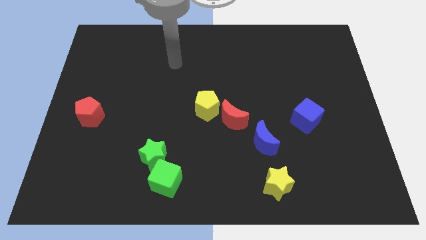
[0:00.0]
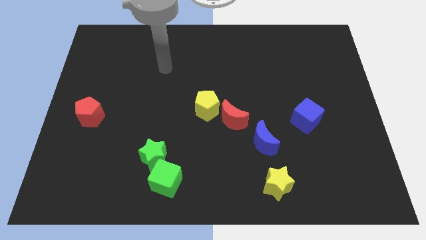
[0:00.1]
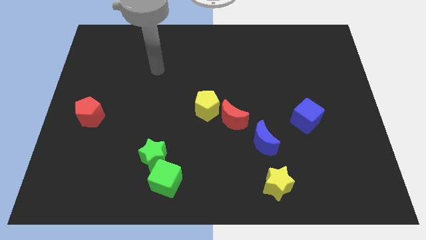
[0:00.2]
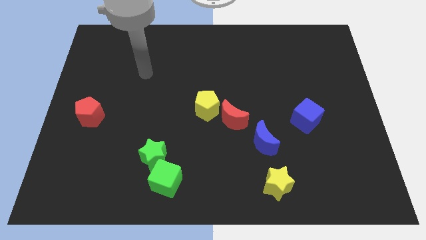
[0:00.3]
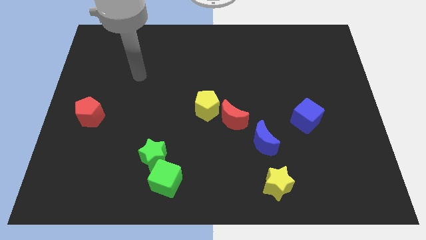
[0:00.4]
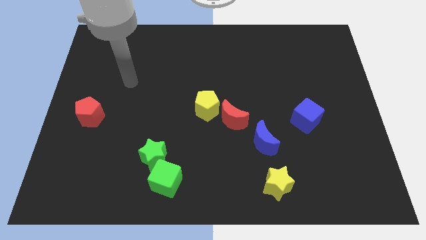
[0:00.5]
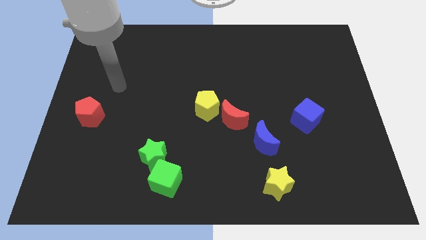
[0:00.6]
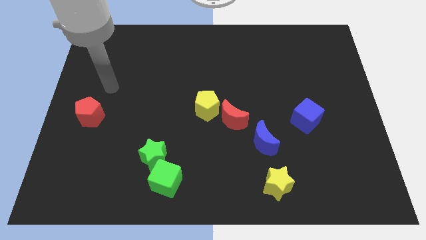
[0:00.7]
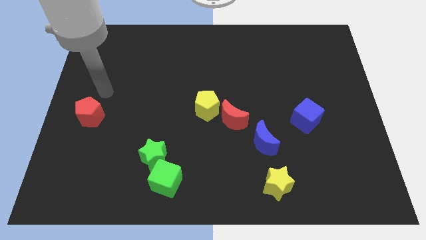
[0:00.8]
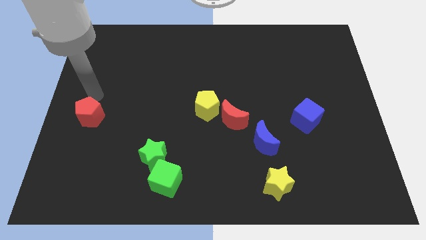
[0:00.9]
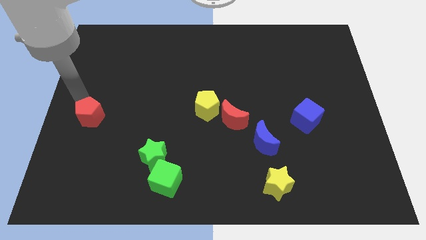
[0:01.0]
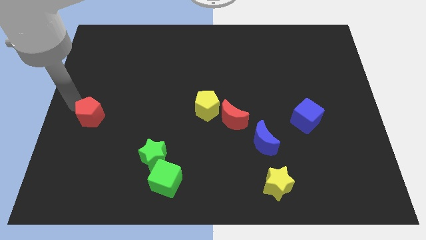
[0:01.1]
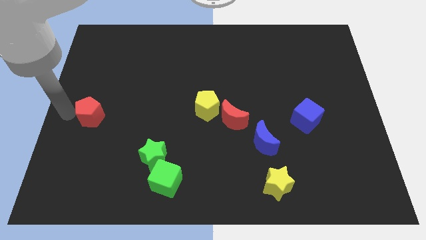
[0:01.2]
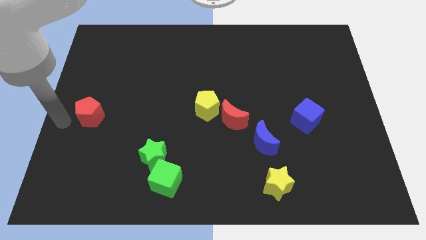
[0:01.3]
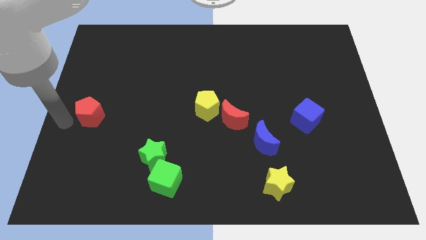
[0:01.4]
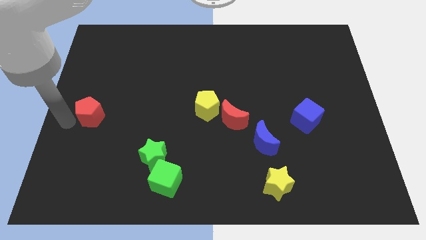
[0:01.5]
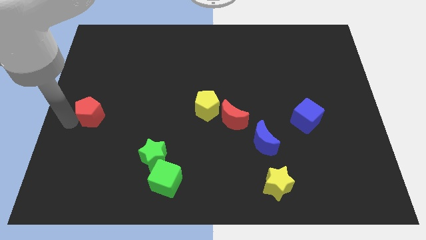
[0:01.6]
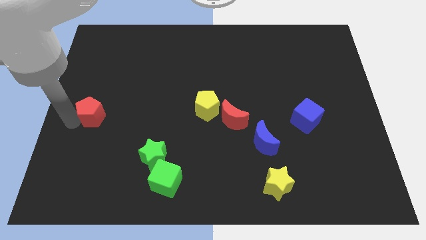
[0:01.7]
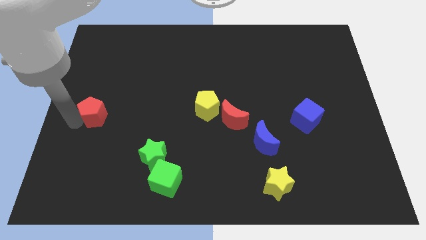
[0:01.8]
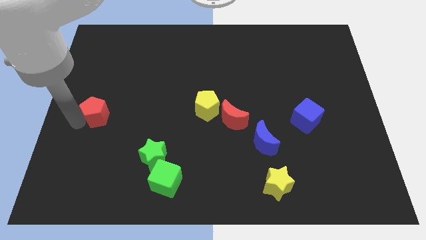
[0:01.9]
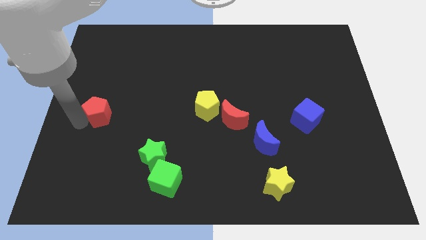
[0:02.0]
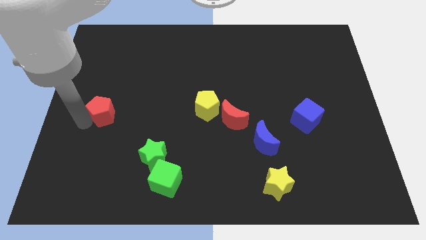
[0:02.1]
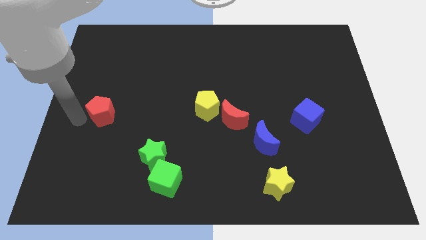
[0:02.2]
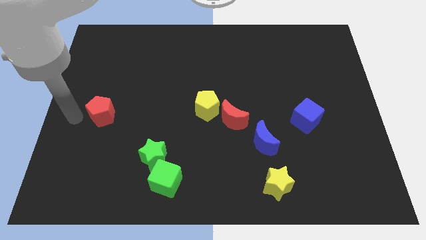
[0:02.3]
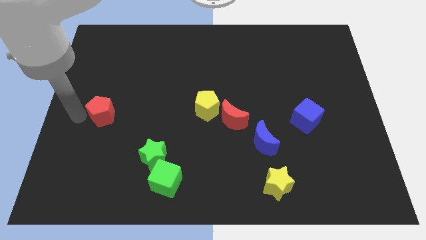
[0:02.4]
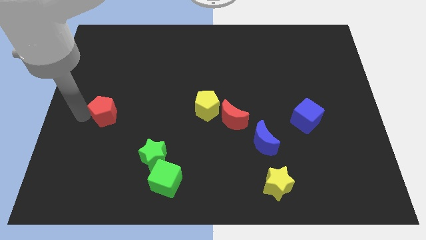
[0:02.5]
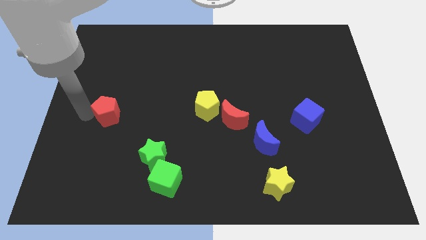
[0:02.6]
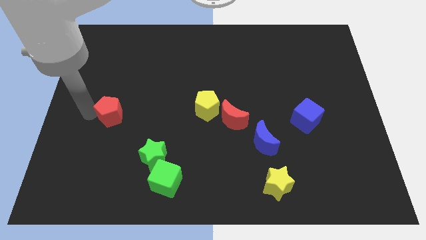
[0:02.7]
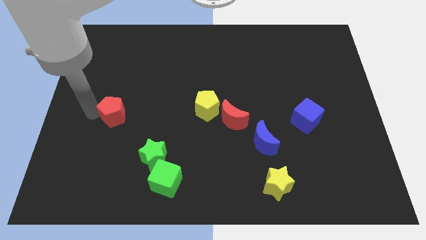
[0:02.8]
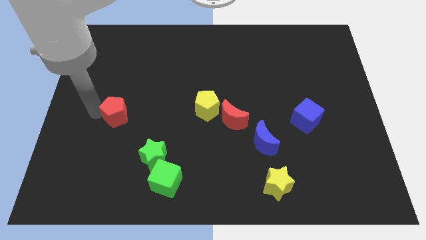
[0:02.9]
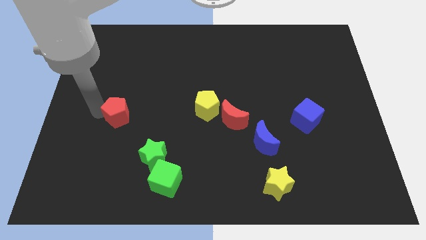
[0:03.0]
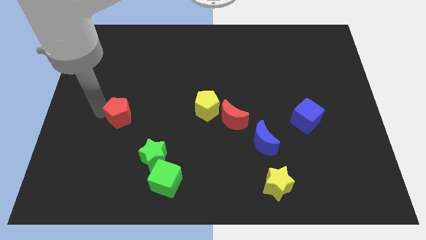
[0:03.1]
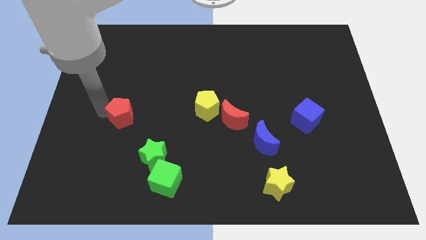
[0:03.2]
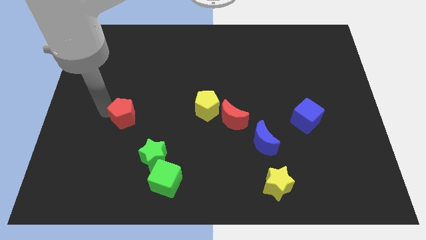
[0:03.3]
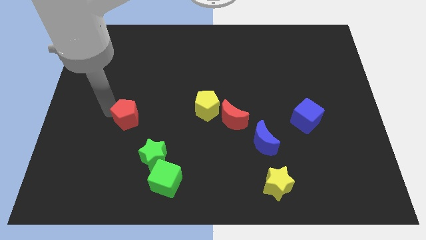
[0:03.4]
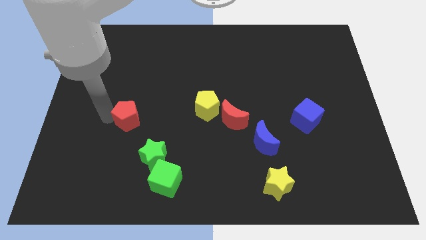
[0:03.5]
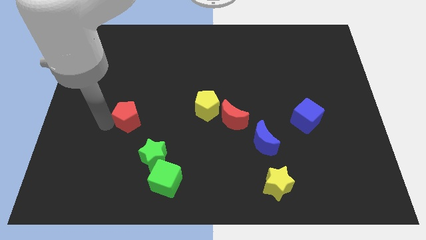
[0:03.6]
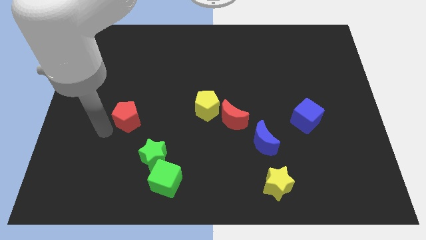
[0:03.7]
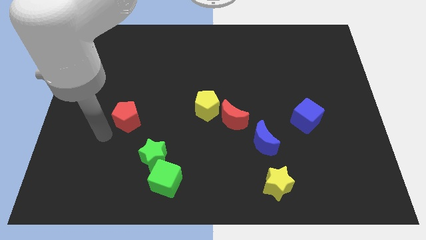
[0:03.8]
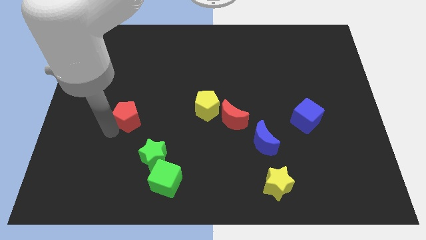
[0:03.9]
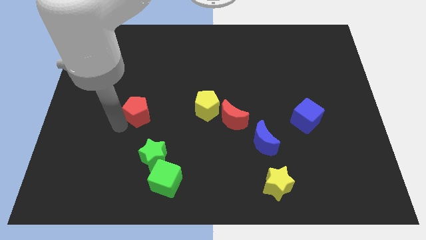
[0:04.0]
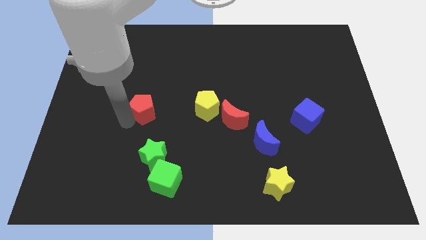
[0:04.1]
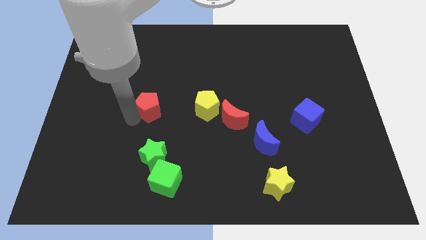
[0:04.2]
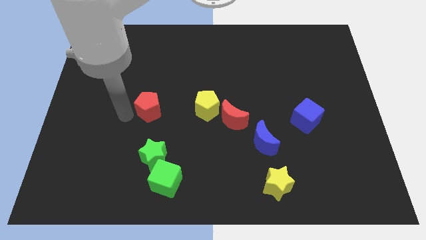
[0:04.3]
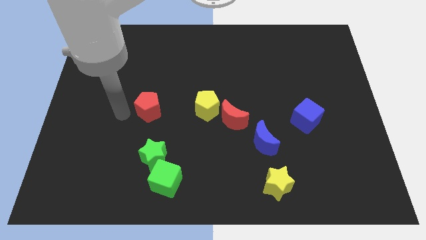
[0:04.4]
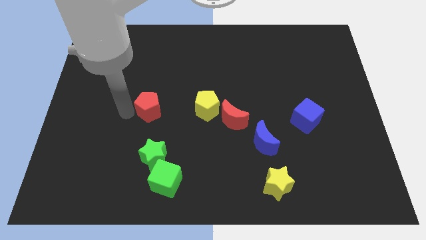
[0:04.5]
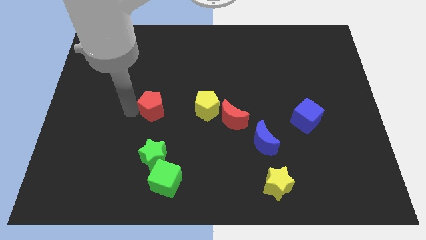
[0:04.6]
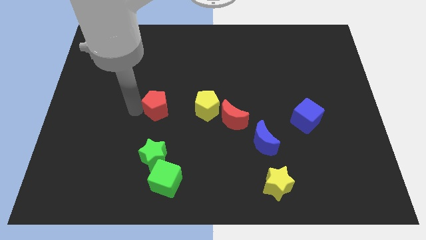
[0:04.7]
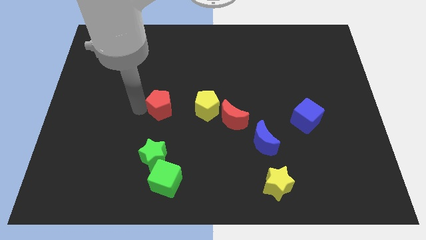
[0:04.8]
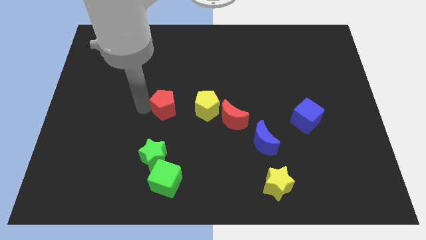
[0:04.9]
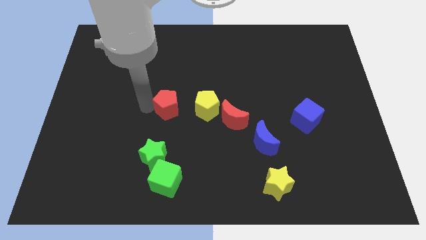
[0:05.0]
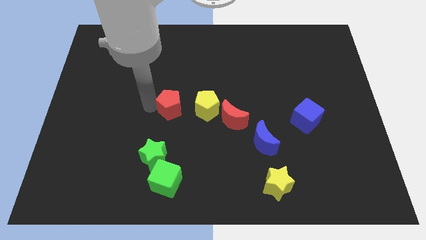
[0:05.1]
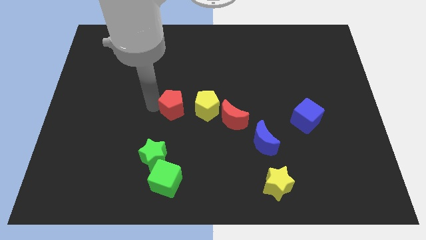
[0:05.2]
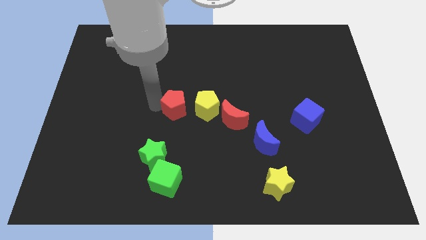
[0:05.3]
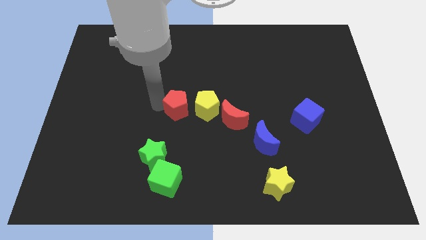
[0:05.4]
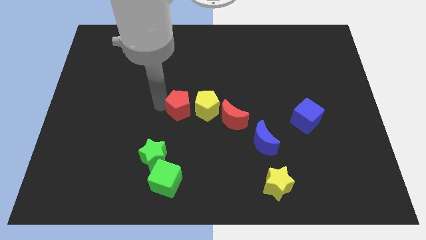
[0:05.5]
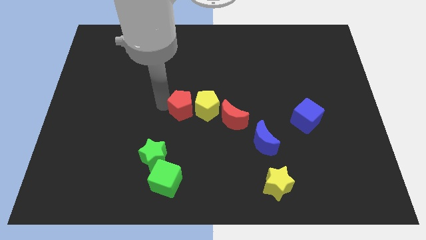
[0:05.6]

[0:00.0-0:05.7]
push the red pentagon next to the yellow pentagon

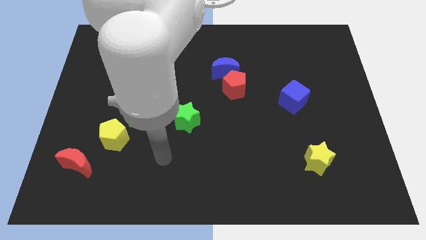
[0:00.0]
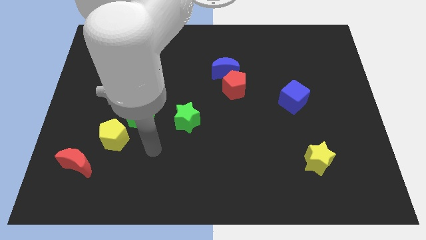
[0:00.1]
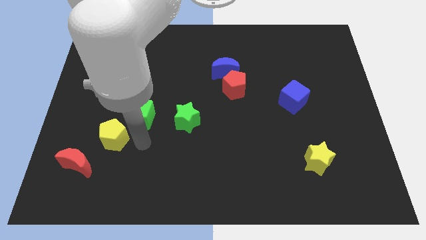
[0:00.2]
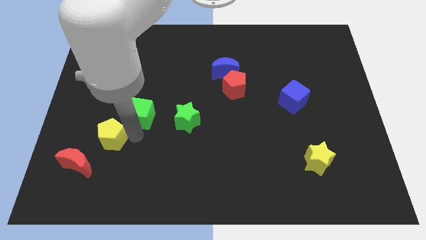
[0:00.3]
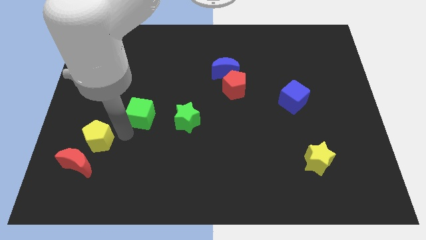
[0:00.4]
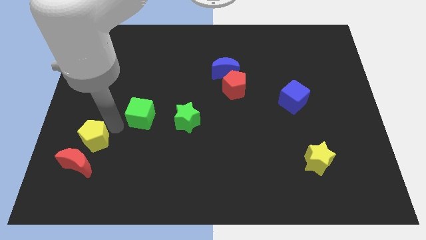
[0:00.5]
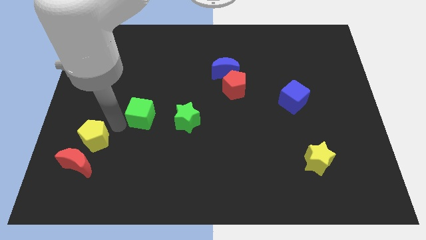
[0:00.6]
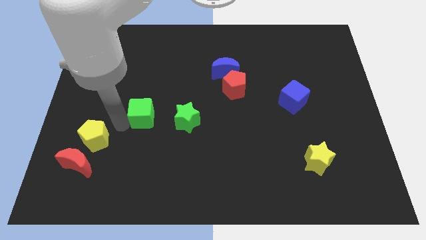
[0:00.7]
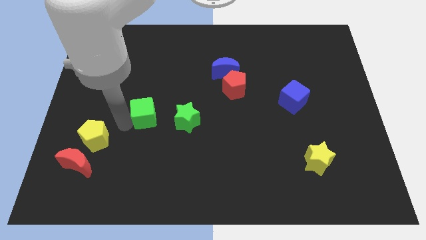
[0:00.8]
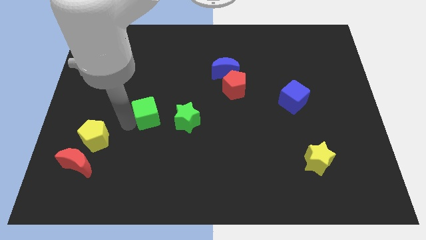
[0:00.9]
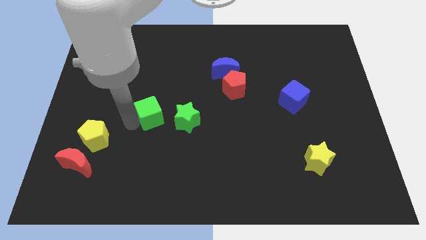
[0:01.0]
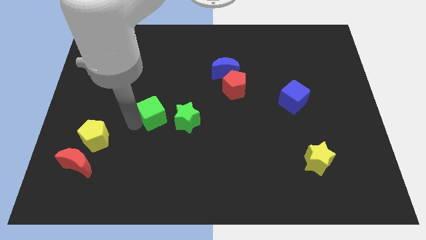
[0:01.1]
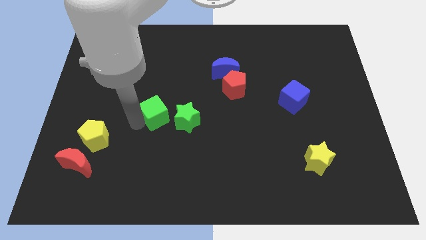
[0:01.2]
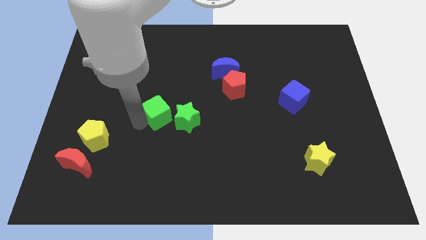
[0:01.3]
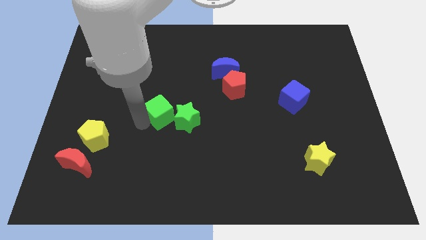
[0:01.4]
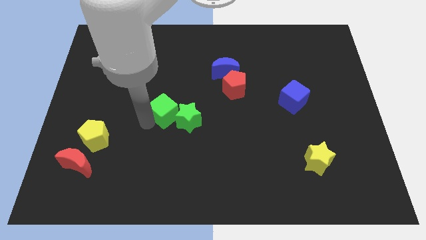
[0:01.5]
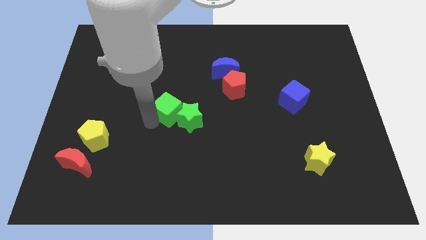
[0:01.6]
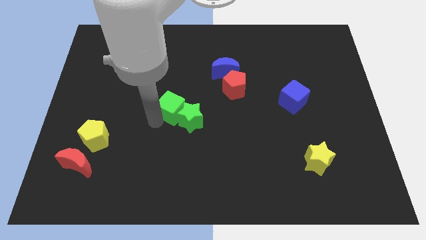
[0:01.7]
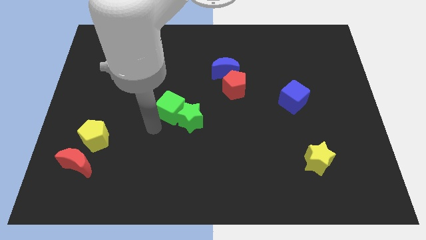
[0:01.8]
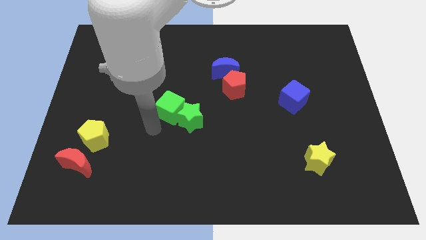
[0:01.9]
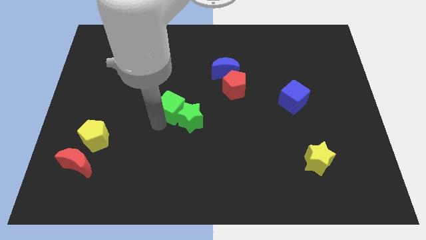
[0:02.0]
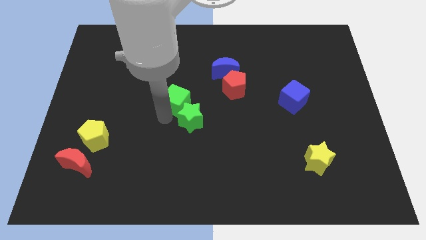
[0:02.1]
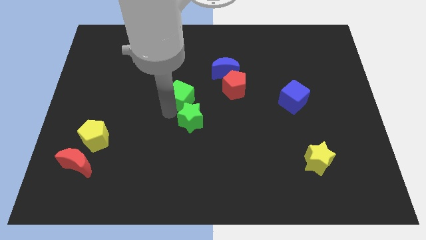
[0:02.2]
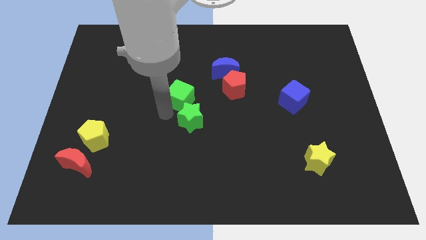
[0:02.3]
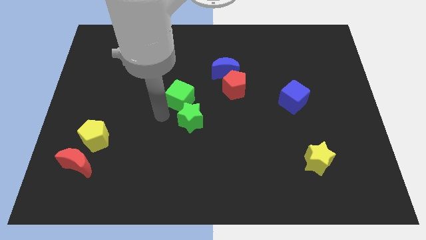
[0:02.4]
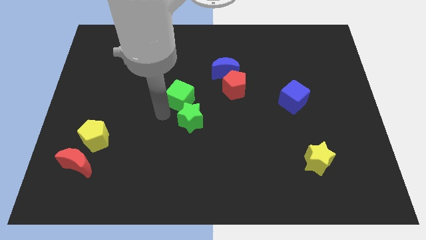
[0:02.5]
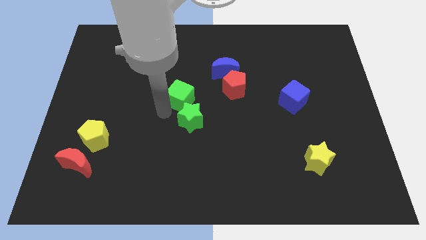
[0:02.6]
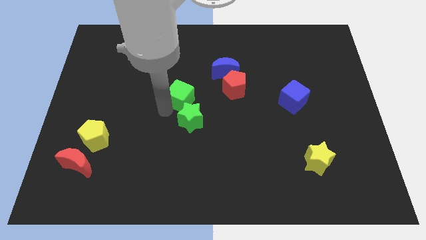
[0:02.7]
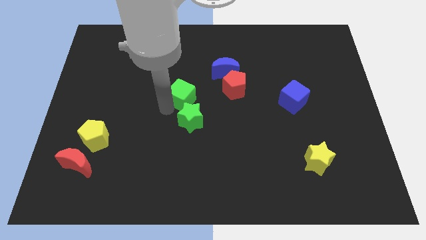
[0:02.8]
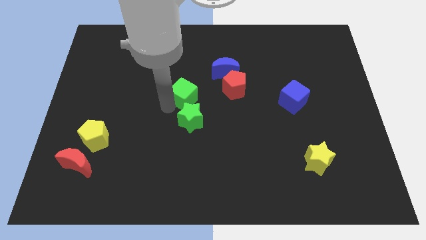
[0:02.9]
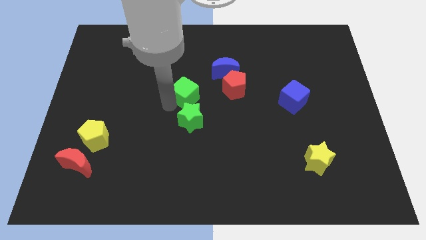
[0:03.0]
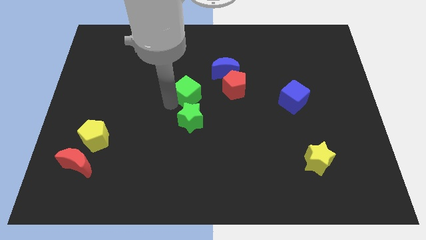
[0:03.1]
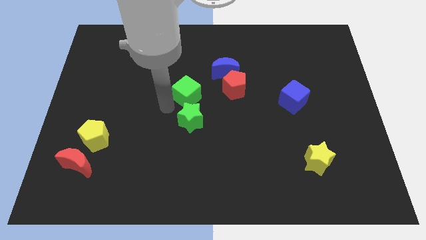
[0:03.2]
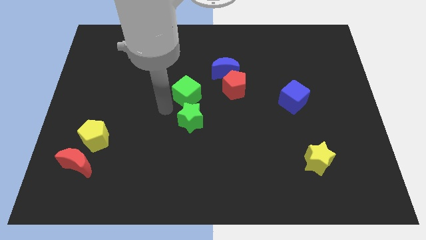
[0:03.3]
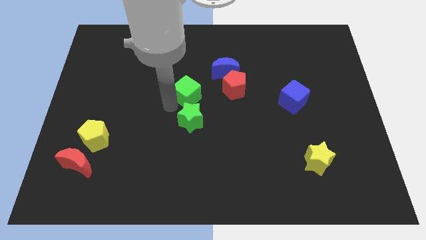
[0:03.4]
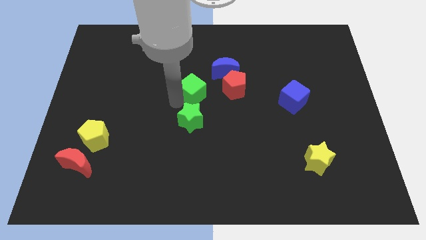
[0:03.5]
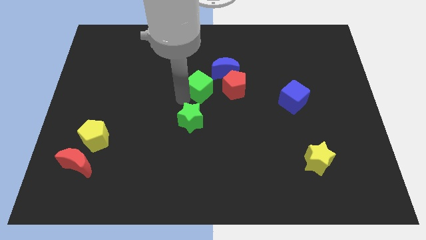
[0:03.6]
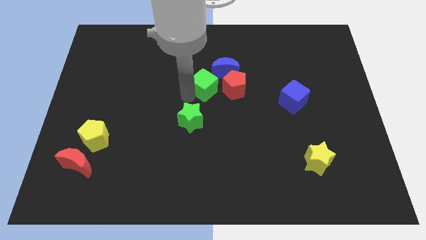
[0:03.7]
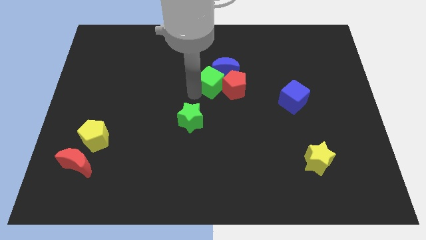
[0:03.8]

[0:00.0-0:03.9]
put the green cube to the blue moon
